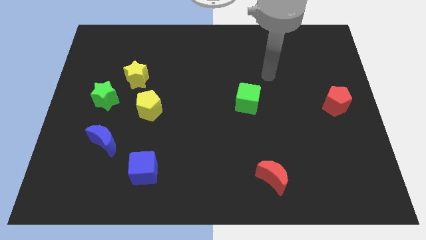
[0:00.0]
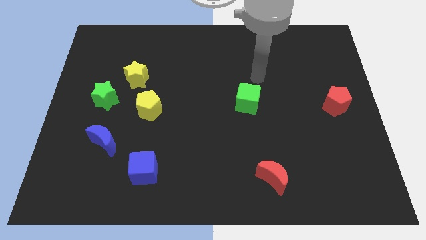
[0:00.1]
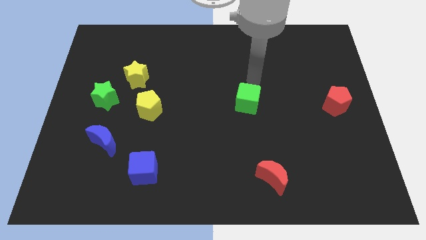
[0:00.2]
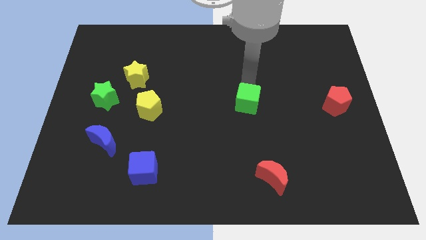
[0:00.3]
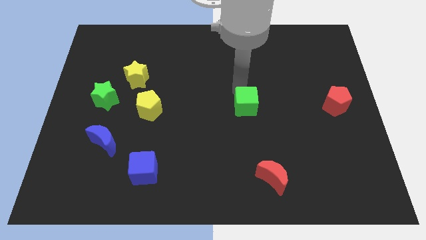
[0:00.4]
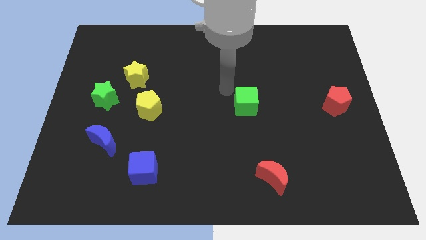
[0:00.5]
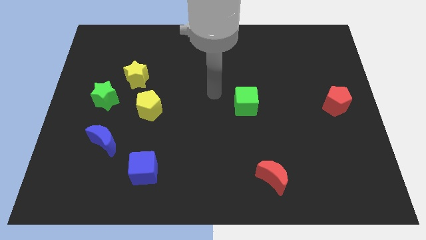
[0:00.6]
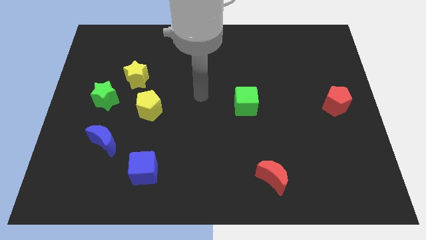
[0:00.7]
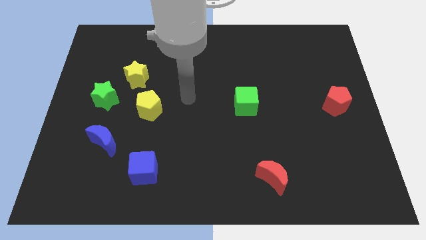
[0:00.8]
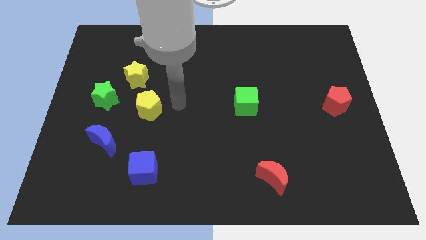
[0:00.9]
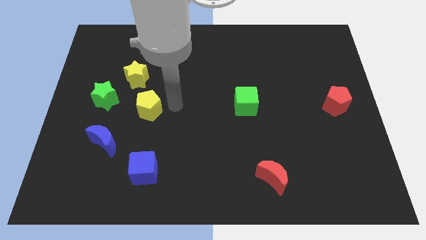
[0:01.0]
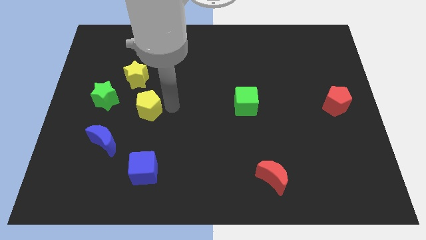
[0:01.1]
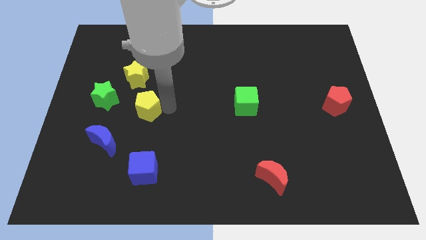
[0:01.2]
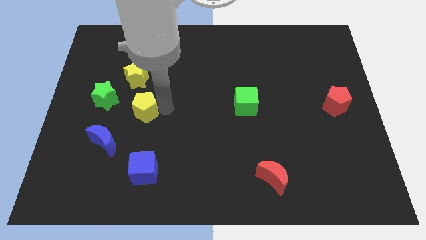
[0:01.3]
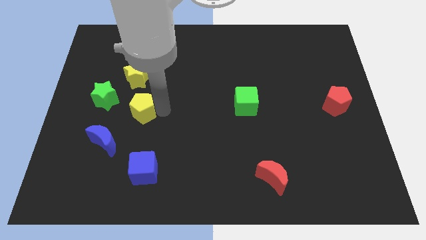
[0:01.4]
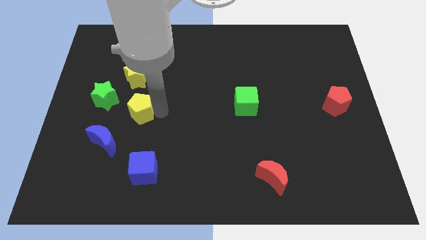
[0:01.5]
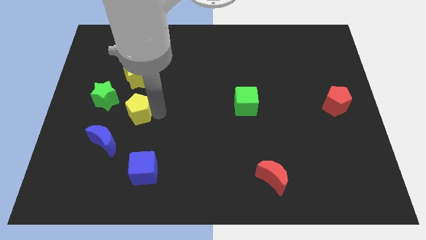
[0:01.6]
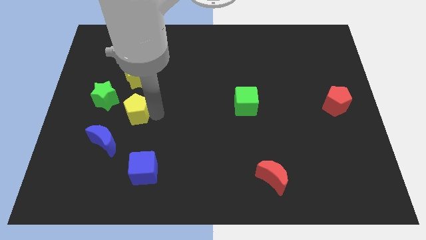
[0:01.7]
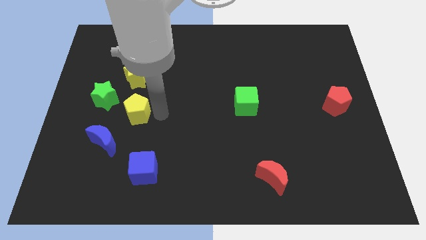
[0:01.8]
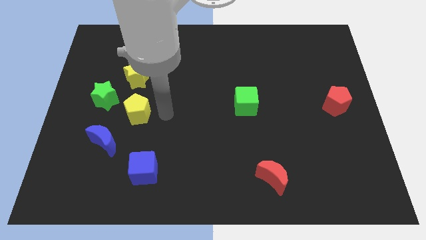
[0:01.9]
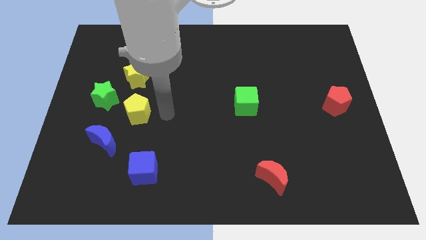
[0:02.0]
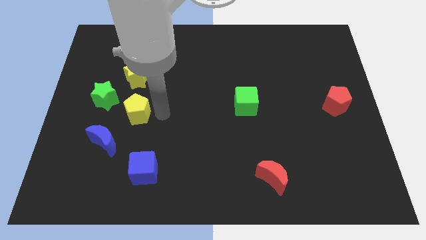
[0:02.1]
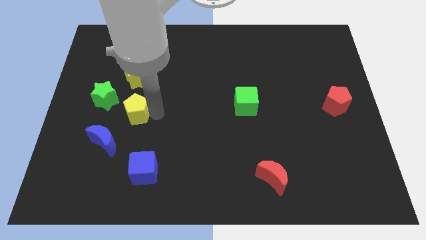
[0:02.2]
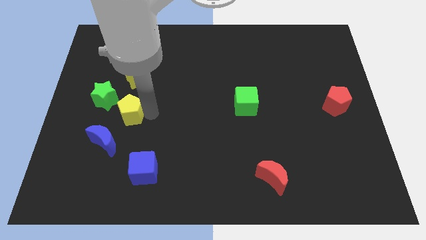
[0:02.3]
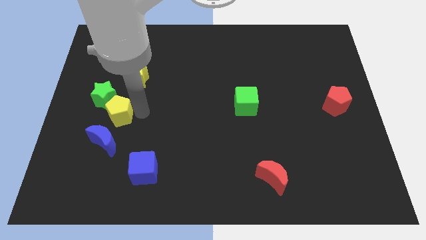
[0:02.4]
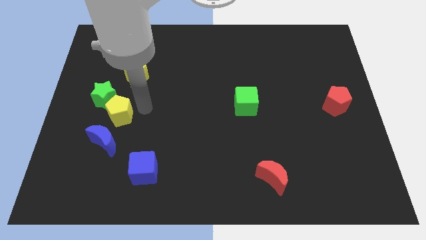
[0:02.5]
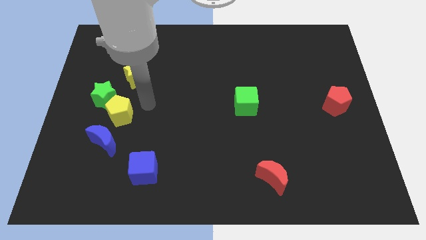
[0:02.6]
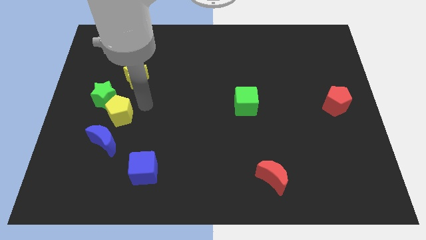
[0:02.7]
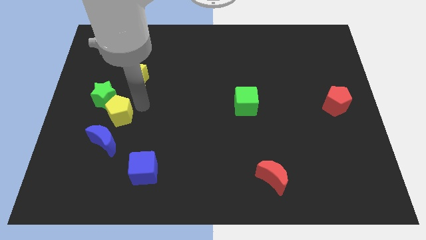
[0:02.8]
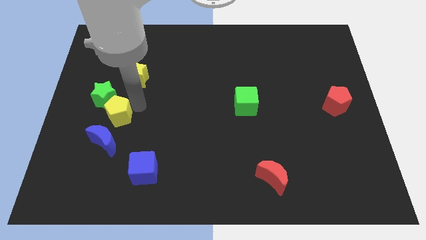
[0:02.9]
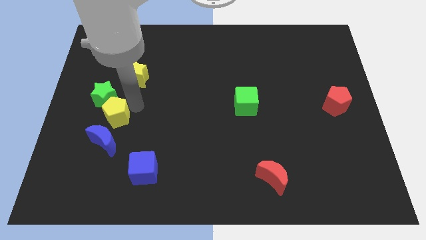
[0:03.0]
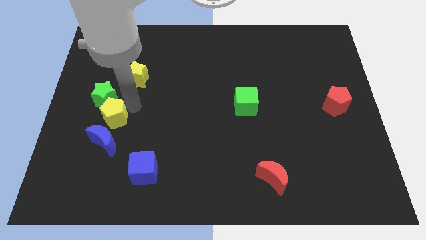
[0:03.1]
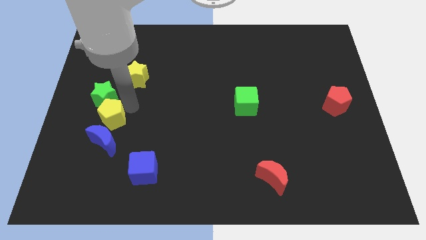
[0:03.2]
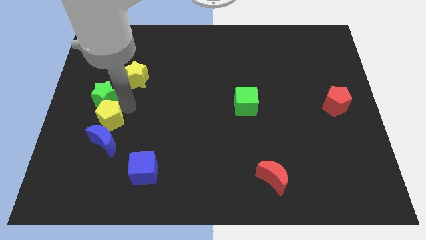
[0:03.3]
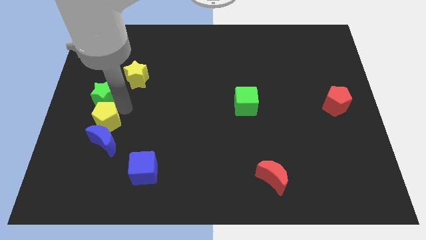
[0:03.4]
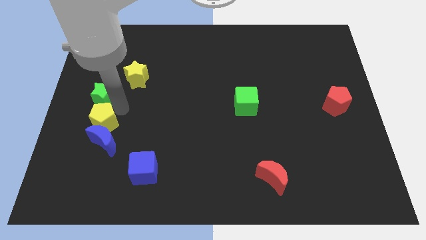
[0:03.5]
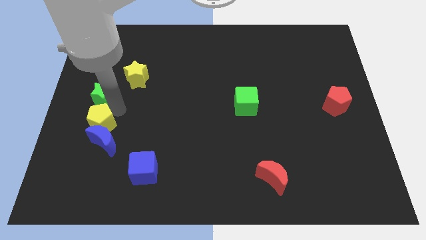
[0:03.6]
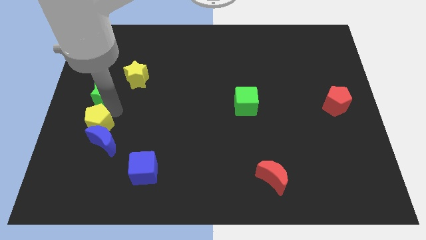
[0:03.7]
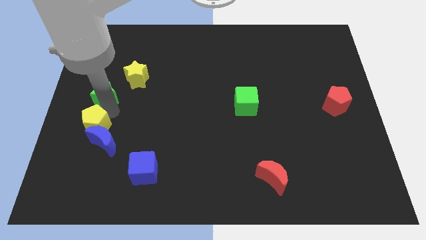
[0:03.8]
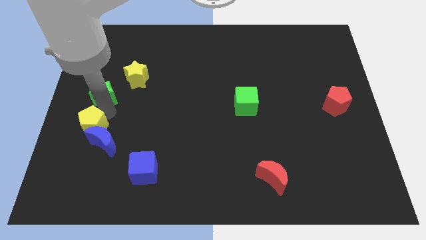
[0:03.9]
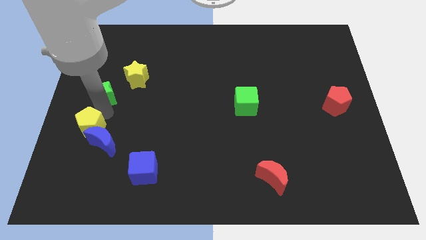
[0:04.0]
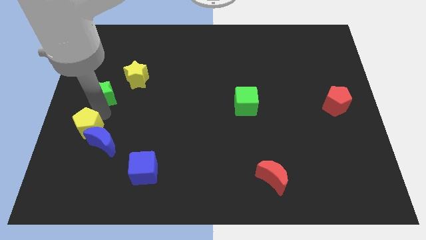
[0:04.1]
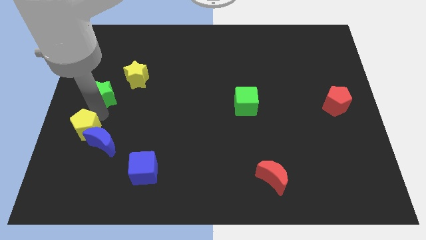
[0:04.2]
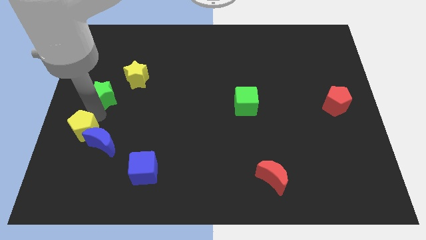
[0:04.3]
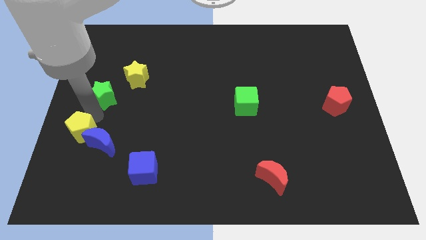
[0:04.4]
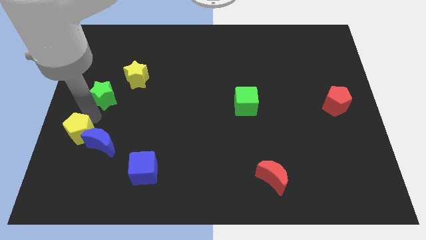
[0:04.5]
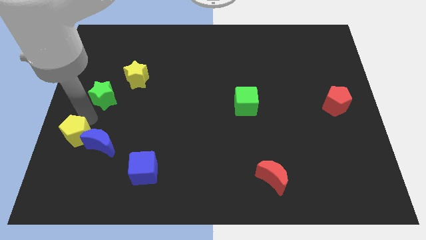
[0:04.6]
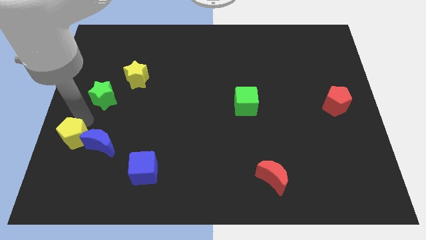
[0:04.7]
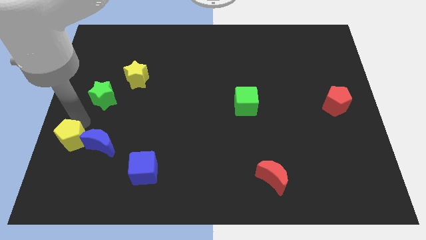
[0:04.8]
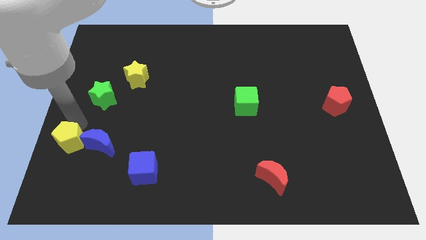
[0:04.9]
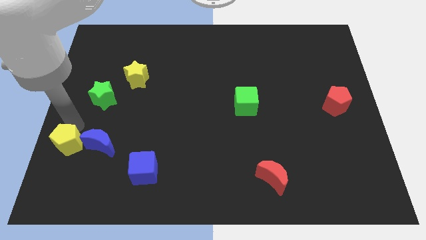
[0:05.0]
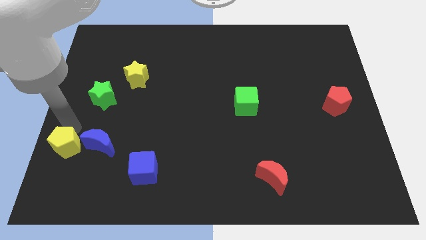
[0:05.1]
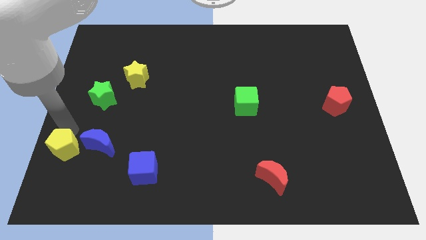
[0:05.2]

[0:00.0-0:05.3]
move the yellow pentagon to the bottom left of the blue moon

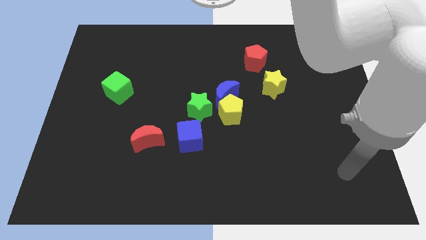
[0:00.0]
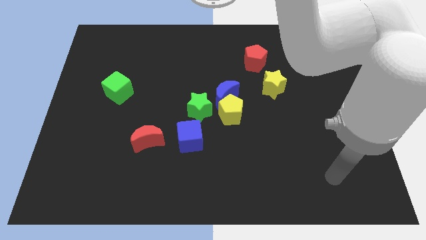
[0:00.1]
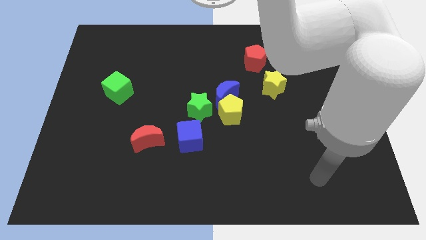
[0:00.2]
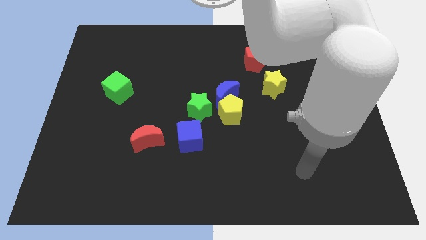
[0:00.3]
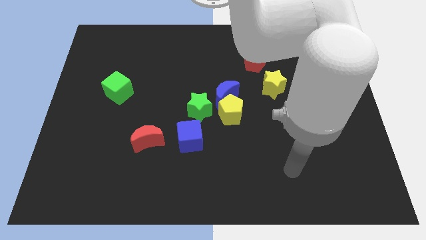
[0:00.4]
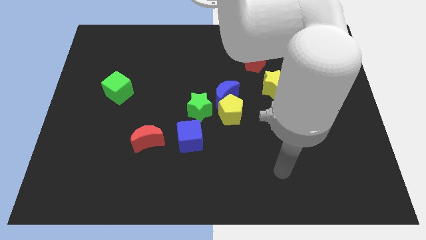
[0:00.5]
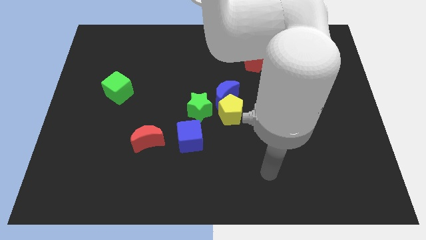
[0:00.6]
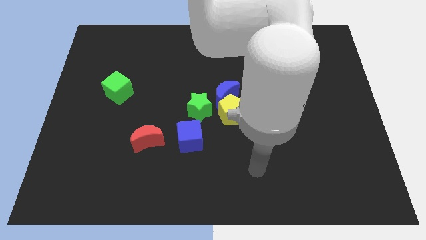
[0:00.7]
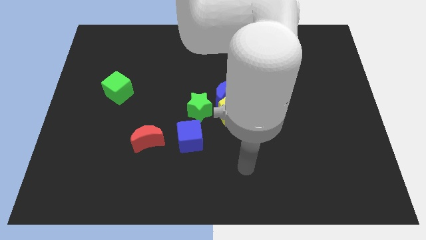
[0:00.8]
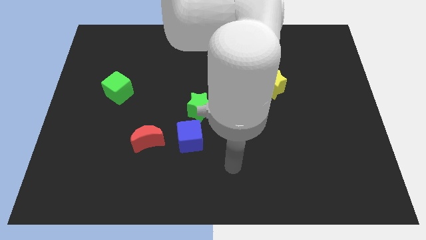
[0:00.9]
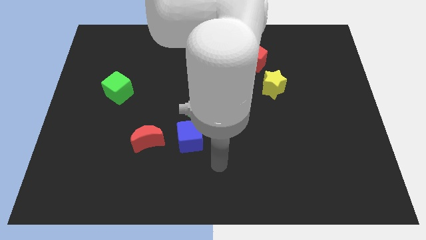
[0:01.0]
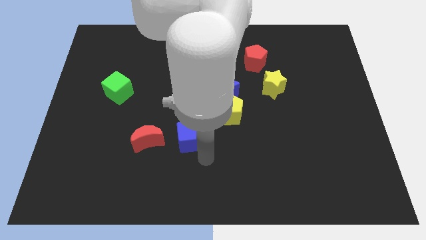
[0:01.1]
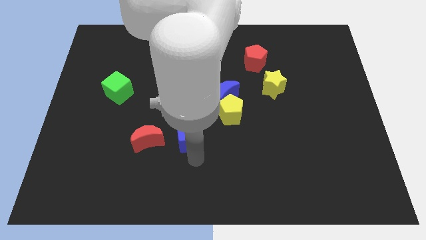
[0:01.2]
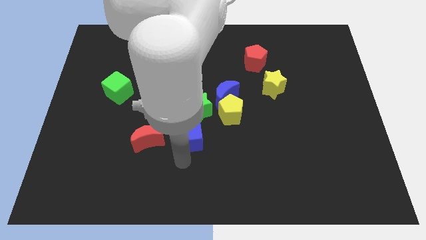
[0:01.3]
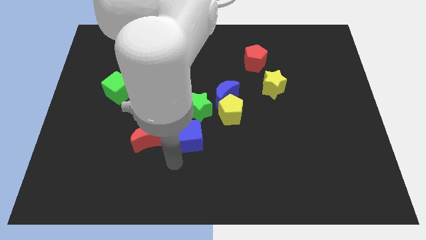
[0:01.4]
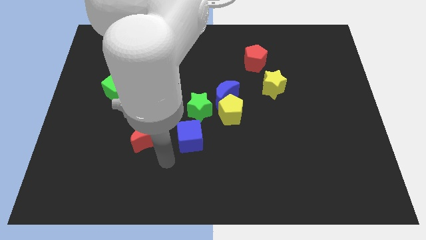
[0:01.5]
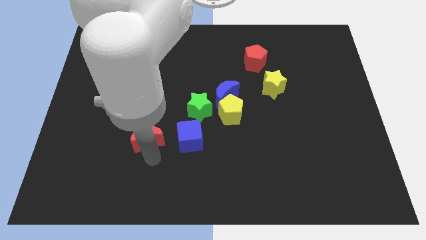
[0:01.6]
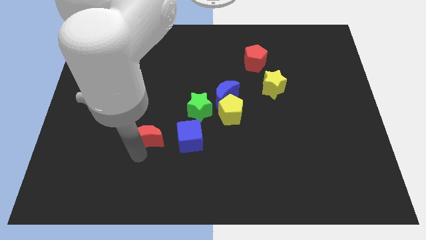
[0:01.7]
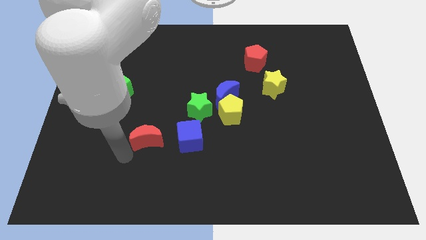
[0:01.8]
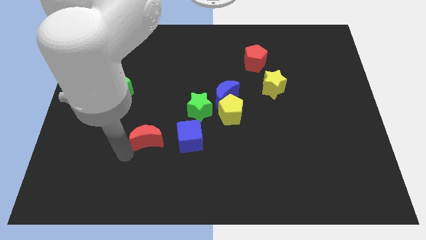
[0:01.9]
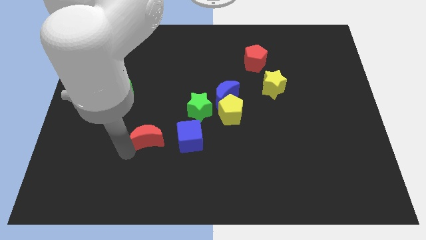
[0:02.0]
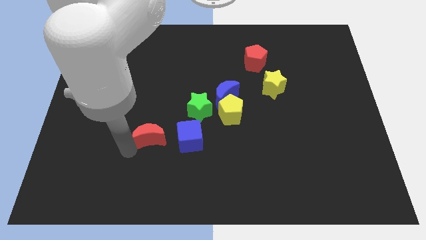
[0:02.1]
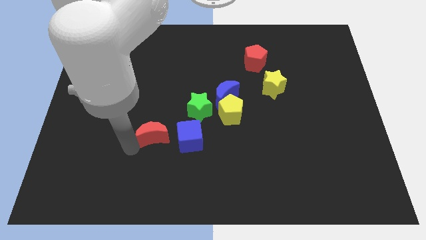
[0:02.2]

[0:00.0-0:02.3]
move the red moon to the bottom left of the green star
